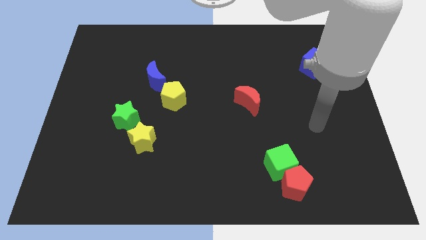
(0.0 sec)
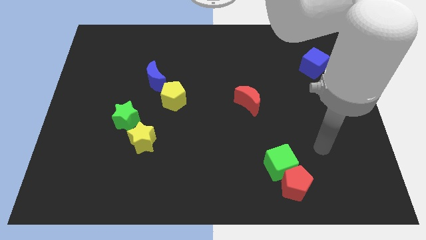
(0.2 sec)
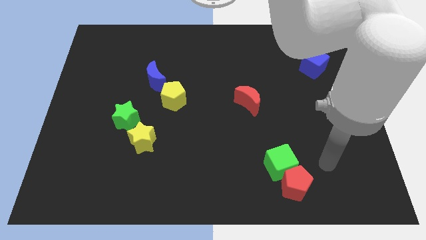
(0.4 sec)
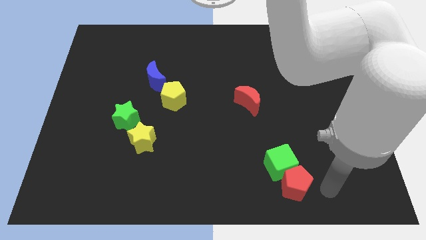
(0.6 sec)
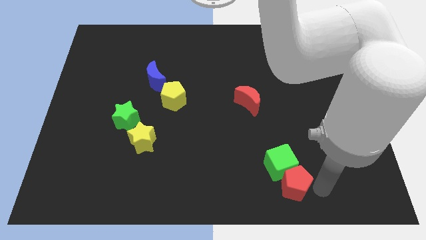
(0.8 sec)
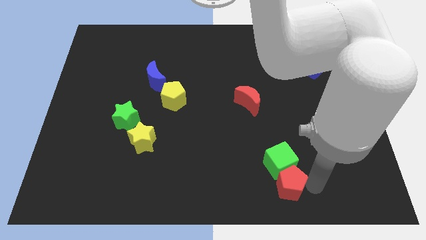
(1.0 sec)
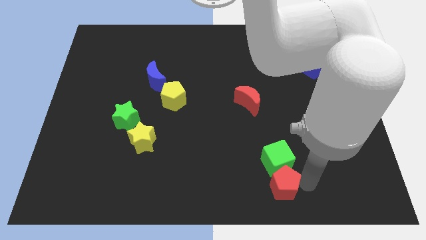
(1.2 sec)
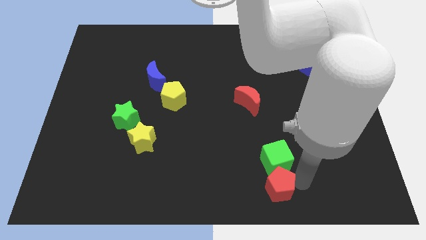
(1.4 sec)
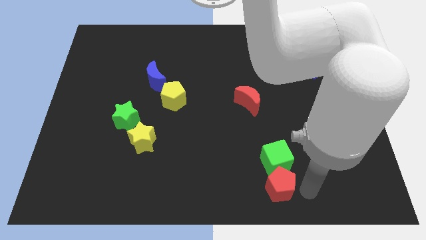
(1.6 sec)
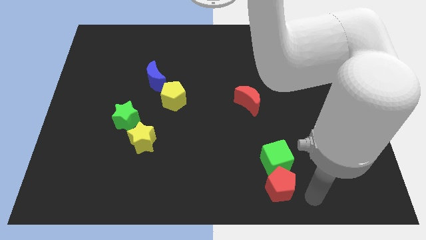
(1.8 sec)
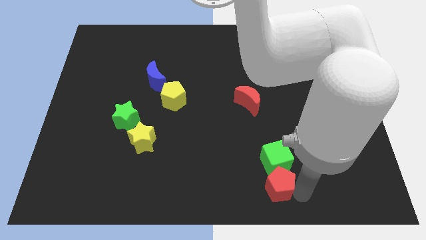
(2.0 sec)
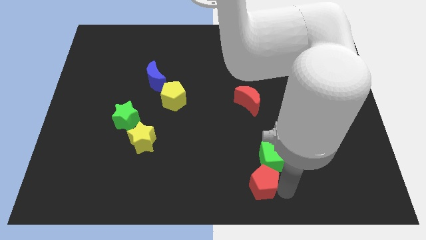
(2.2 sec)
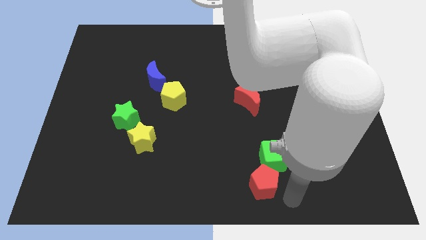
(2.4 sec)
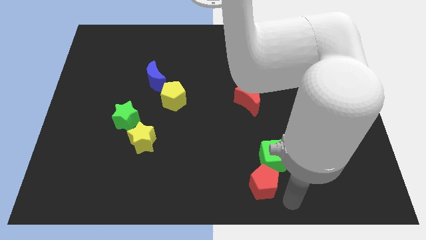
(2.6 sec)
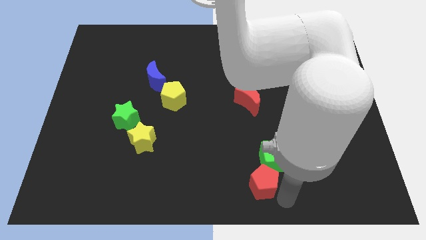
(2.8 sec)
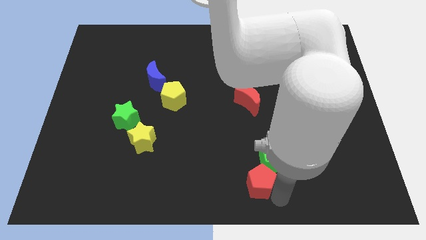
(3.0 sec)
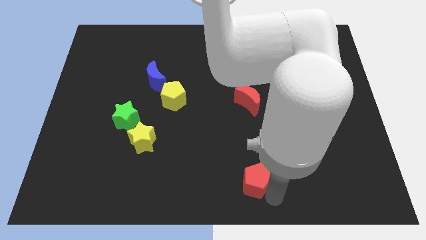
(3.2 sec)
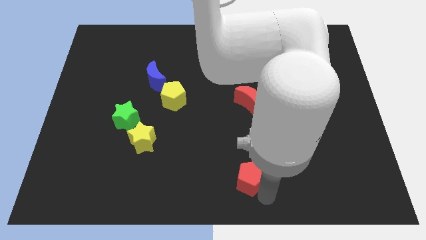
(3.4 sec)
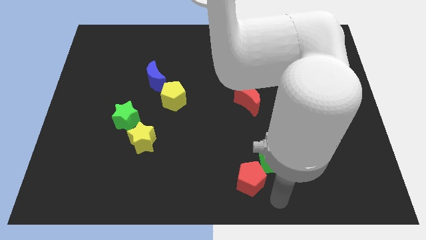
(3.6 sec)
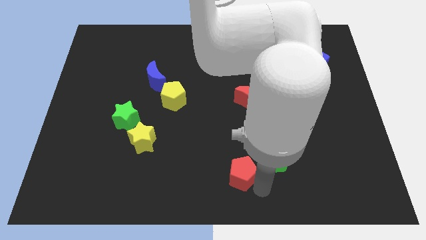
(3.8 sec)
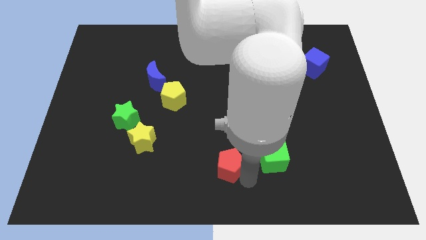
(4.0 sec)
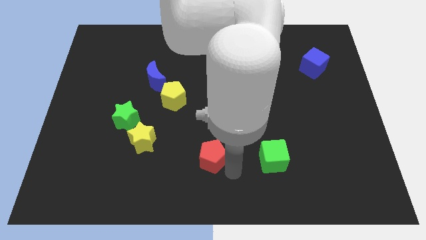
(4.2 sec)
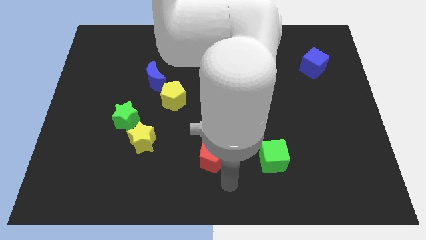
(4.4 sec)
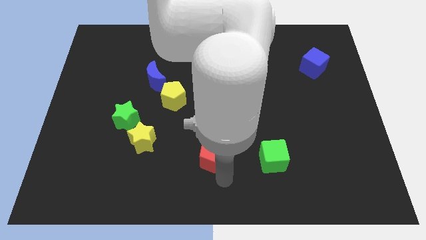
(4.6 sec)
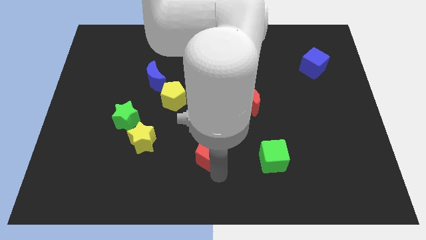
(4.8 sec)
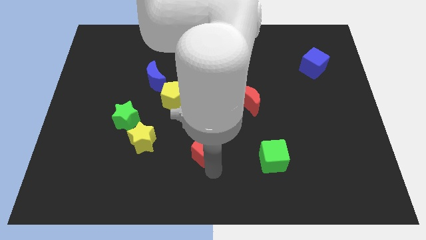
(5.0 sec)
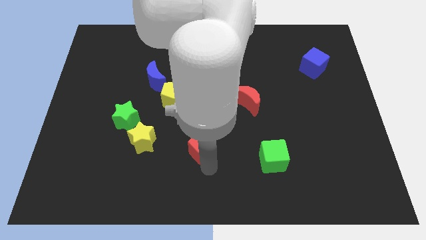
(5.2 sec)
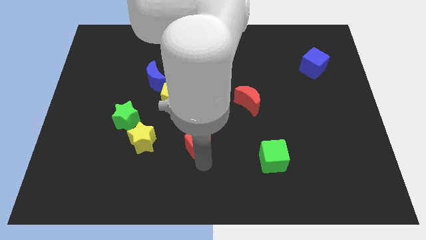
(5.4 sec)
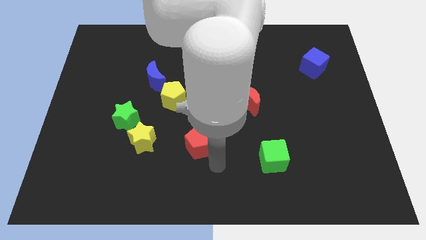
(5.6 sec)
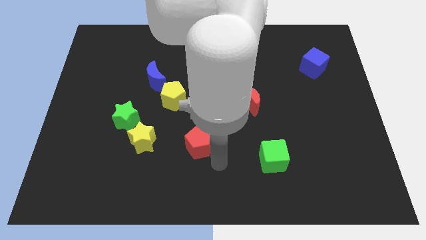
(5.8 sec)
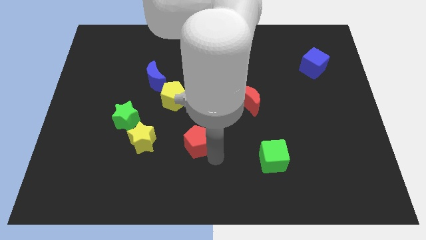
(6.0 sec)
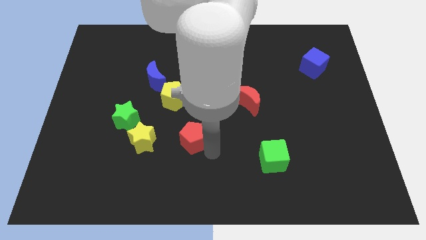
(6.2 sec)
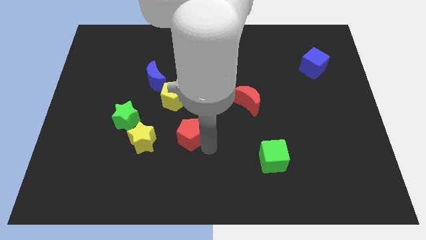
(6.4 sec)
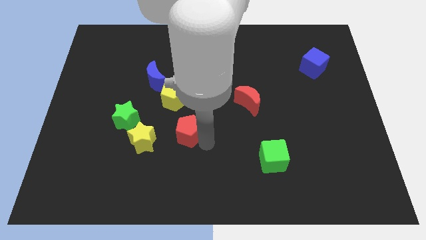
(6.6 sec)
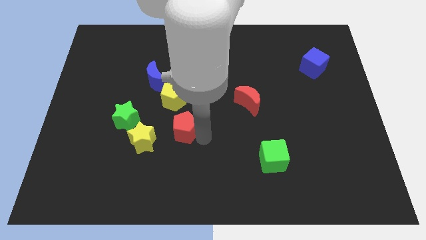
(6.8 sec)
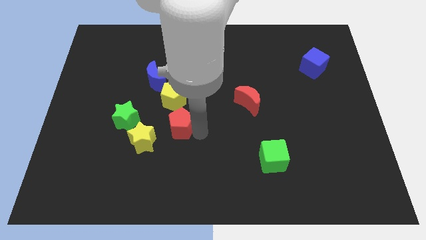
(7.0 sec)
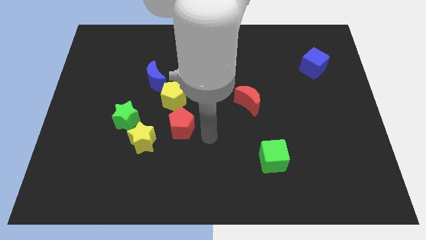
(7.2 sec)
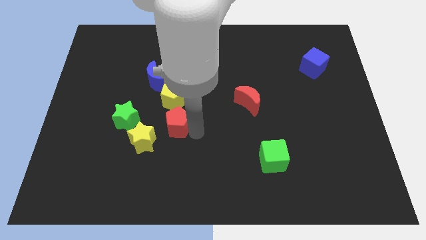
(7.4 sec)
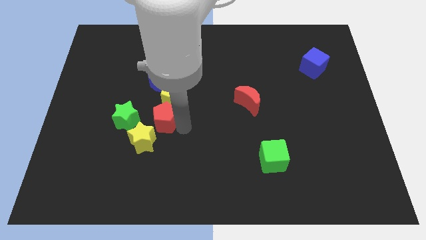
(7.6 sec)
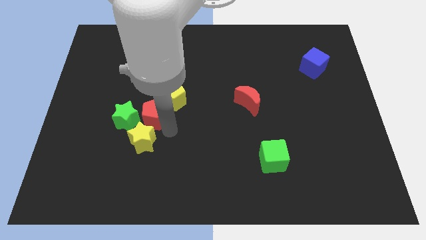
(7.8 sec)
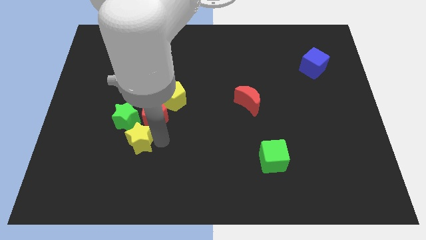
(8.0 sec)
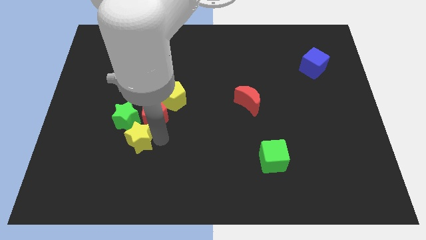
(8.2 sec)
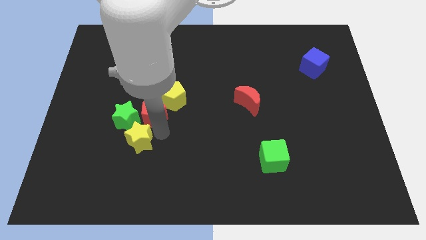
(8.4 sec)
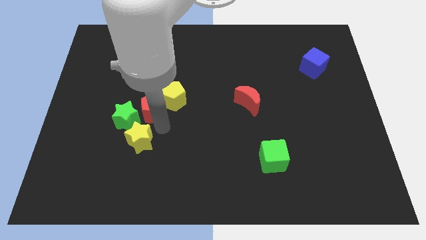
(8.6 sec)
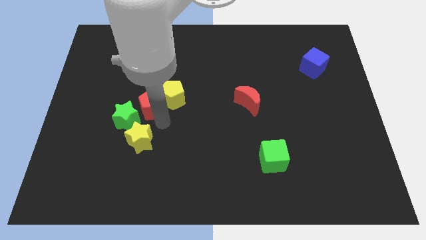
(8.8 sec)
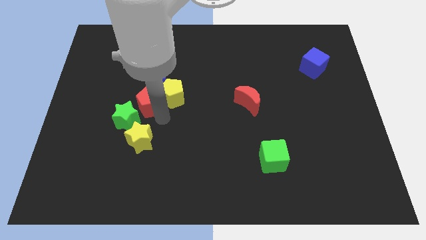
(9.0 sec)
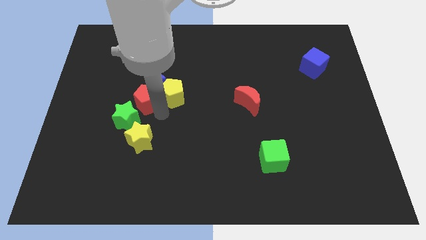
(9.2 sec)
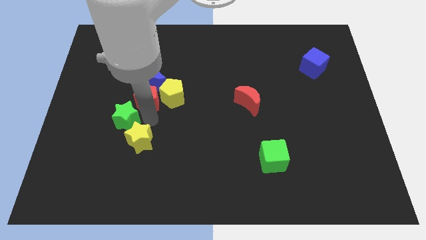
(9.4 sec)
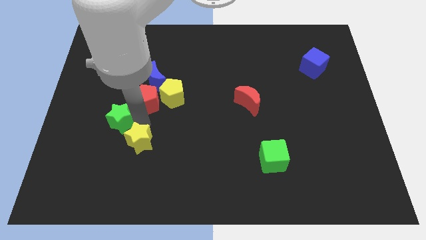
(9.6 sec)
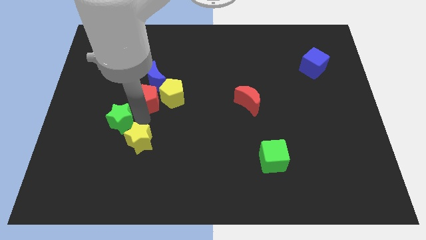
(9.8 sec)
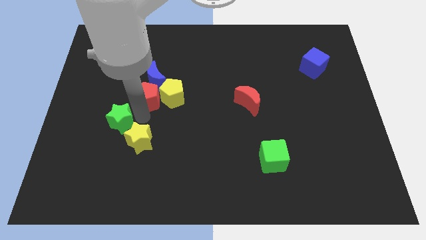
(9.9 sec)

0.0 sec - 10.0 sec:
slide the red pentagon towards the blue moon

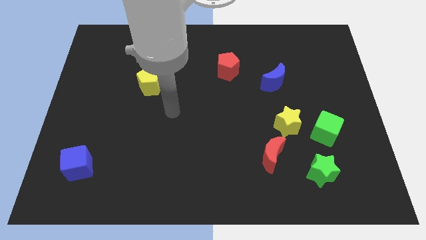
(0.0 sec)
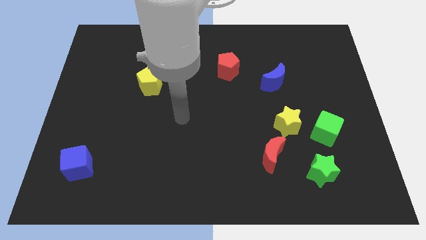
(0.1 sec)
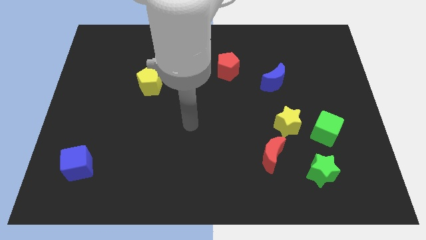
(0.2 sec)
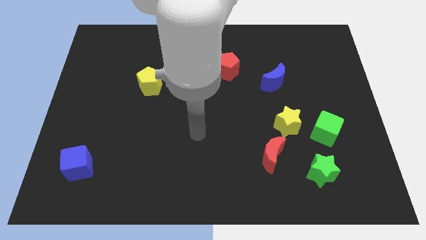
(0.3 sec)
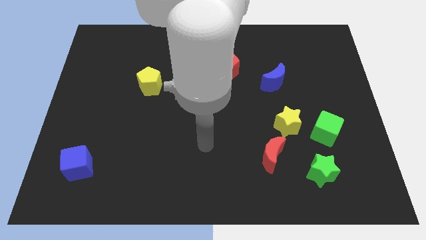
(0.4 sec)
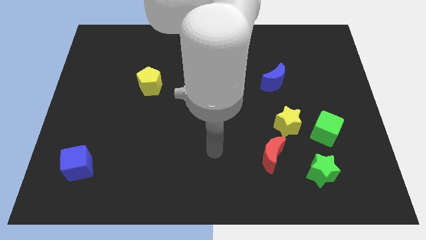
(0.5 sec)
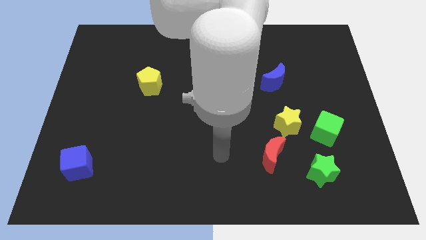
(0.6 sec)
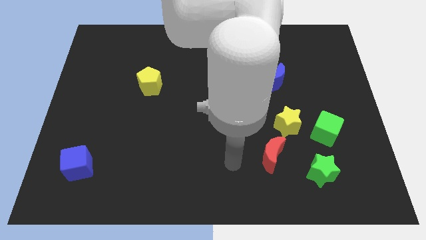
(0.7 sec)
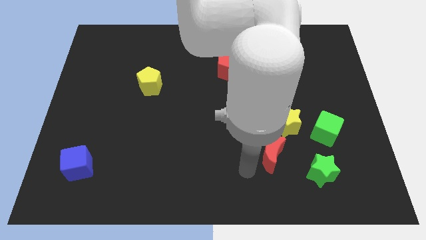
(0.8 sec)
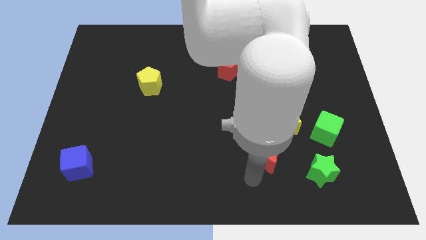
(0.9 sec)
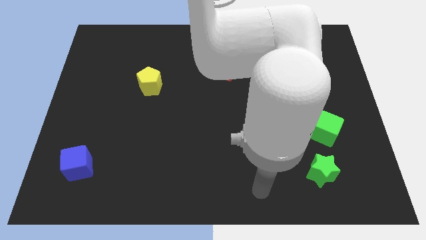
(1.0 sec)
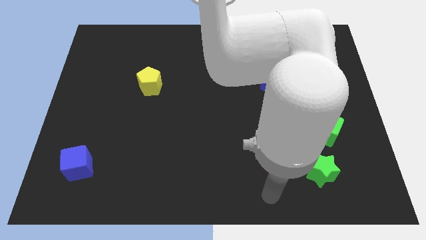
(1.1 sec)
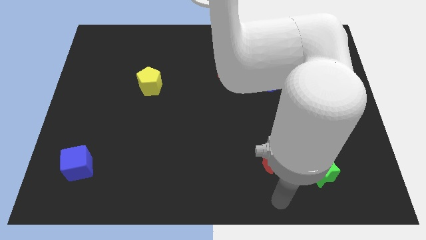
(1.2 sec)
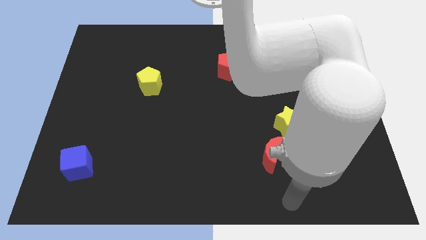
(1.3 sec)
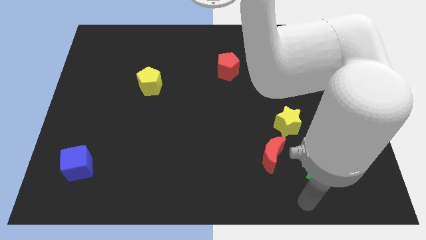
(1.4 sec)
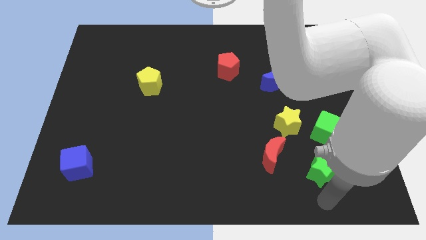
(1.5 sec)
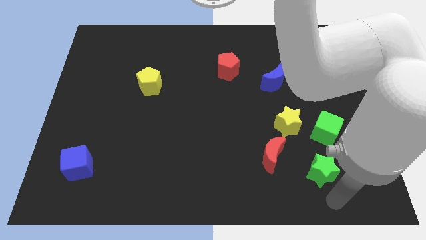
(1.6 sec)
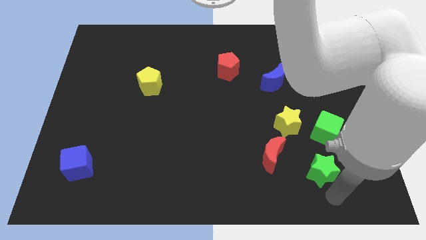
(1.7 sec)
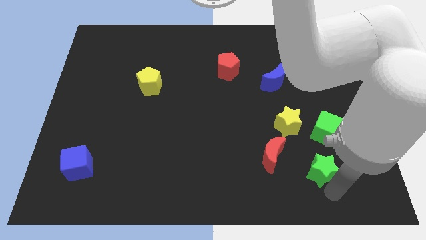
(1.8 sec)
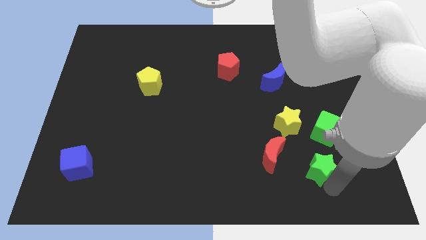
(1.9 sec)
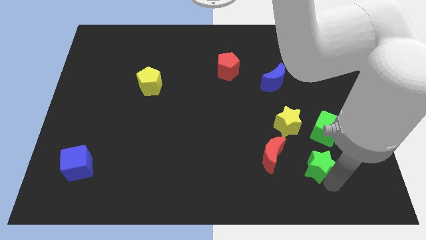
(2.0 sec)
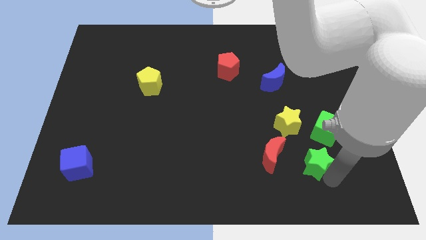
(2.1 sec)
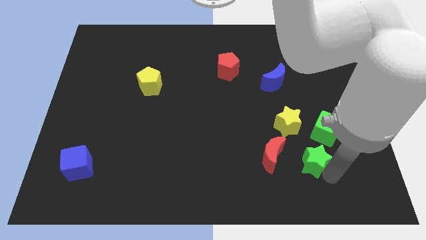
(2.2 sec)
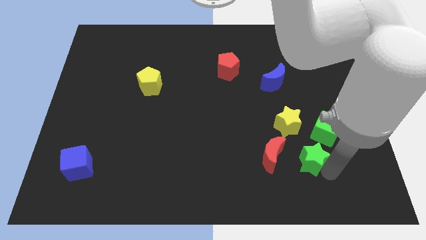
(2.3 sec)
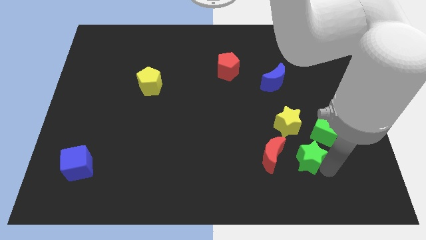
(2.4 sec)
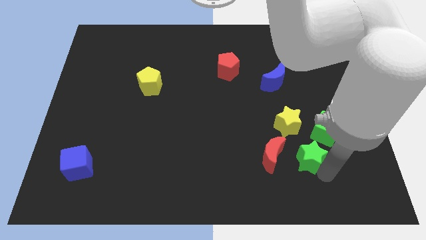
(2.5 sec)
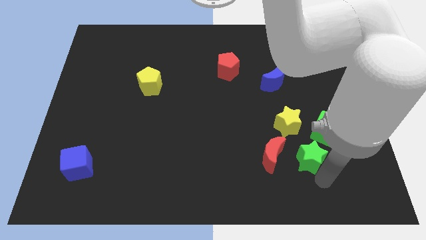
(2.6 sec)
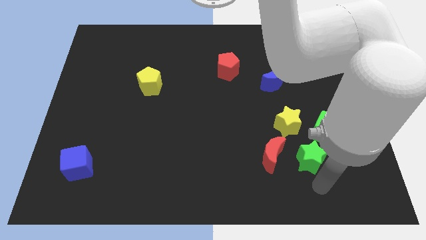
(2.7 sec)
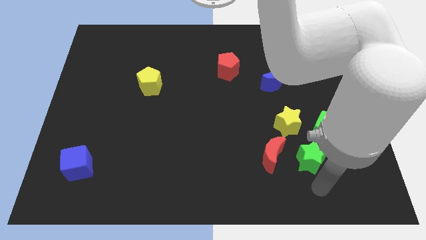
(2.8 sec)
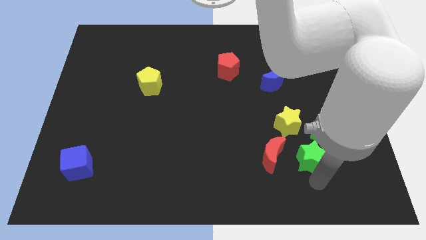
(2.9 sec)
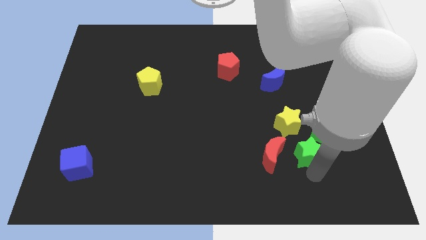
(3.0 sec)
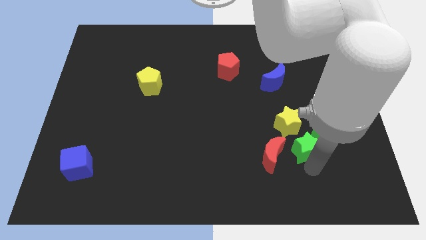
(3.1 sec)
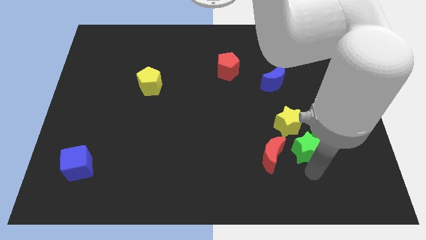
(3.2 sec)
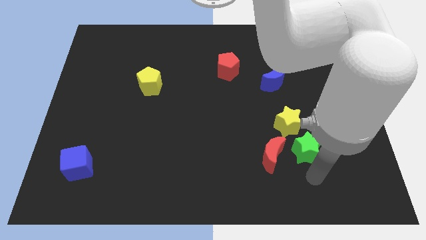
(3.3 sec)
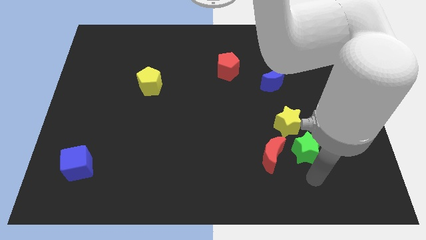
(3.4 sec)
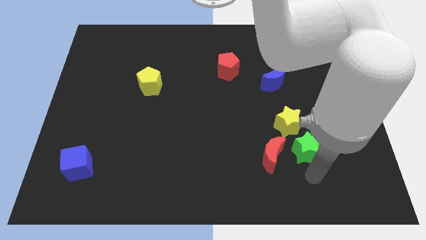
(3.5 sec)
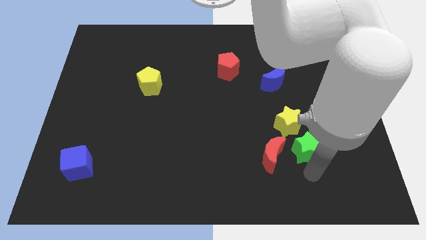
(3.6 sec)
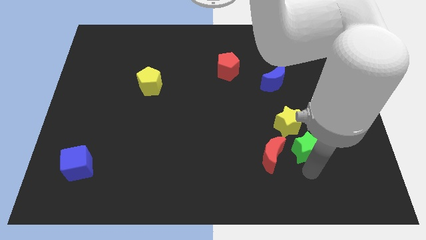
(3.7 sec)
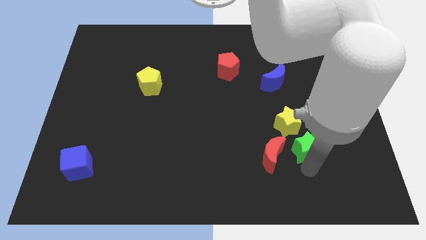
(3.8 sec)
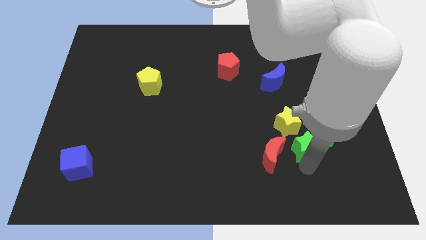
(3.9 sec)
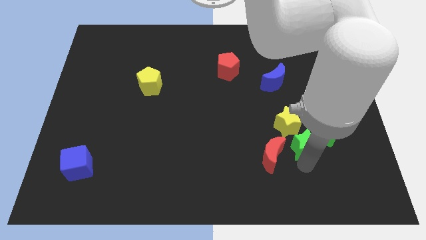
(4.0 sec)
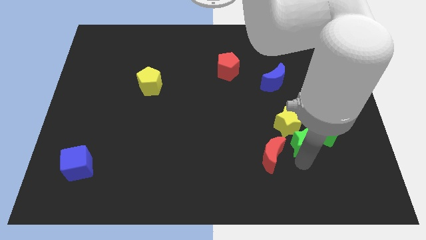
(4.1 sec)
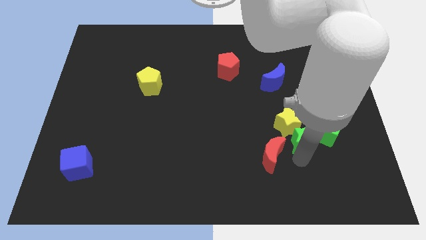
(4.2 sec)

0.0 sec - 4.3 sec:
push the green star close to the yellow star
